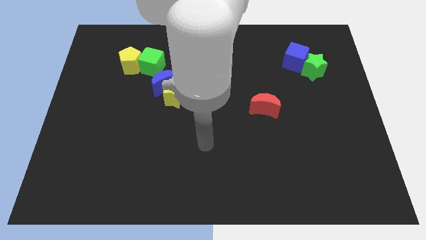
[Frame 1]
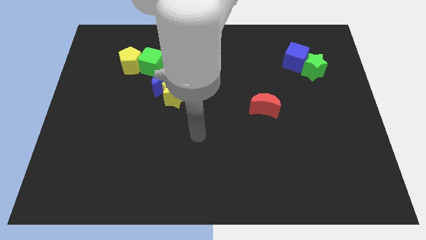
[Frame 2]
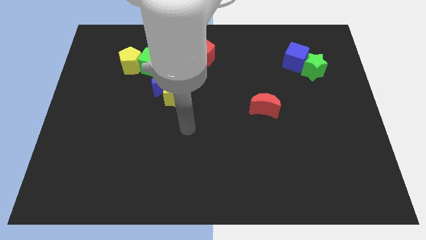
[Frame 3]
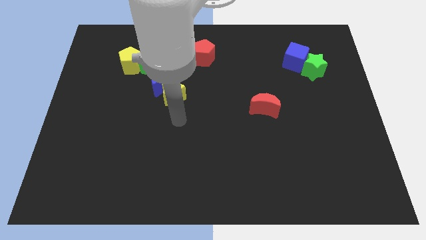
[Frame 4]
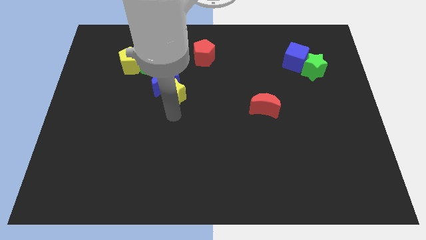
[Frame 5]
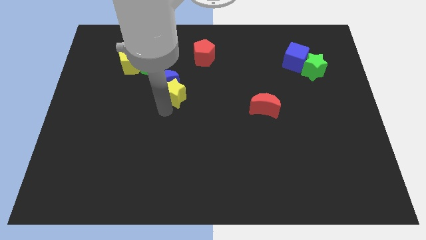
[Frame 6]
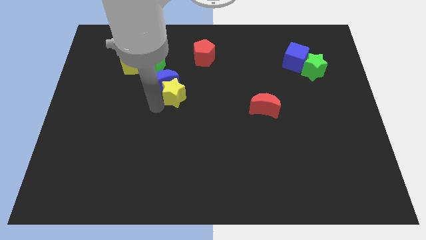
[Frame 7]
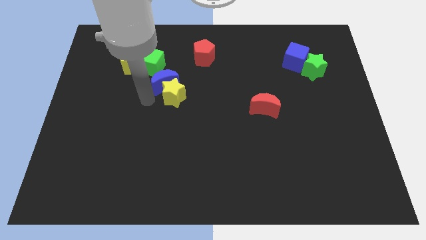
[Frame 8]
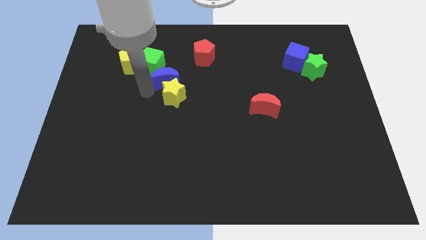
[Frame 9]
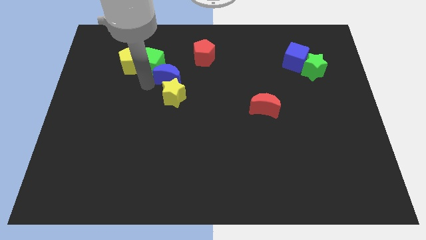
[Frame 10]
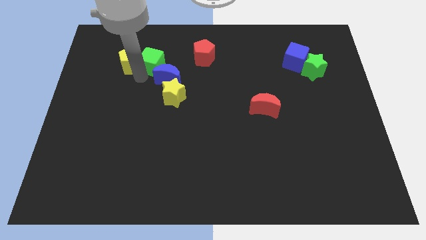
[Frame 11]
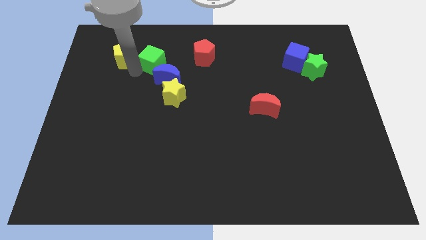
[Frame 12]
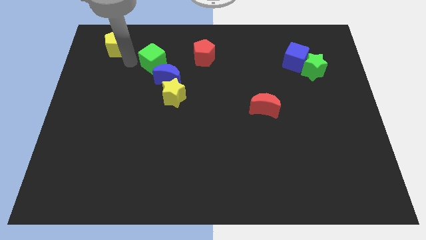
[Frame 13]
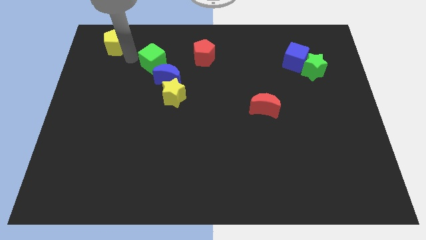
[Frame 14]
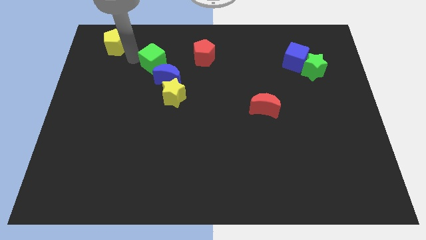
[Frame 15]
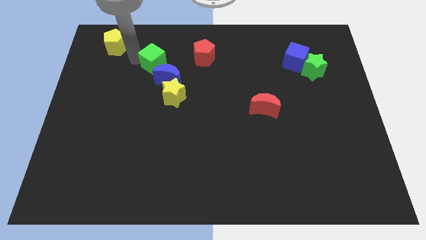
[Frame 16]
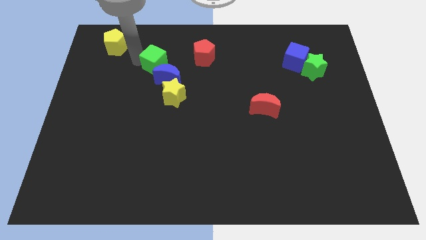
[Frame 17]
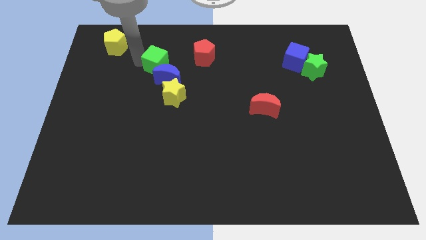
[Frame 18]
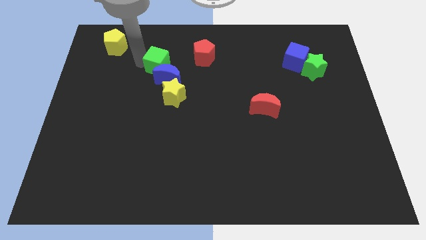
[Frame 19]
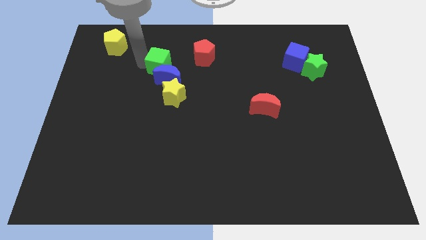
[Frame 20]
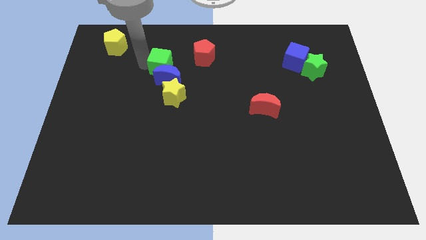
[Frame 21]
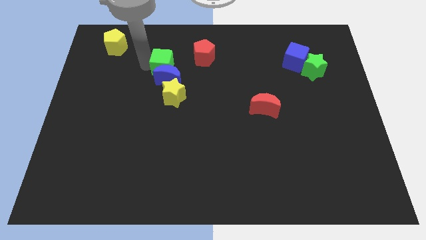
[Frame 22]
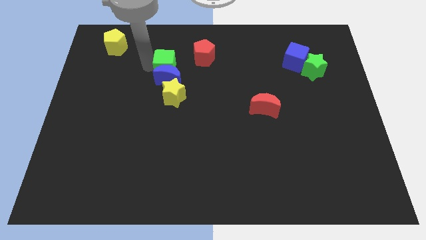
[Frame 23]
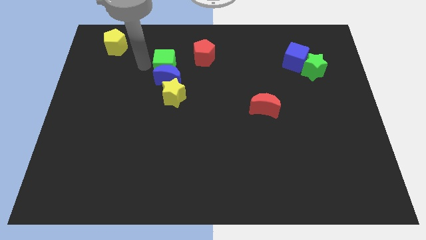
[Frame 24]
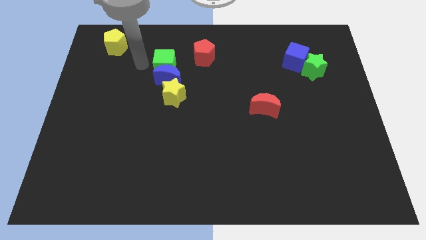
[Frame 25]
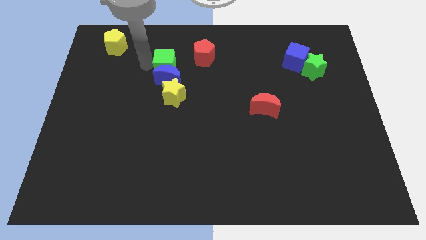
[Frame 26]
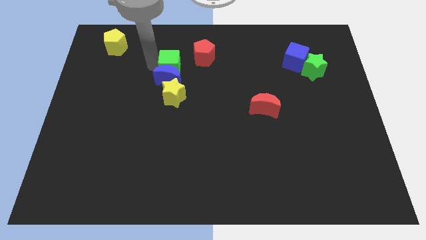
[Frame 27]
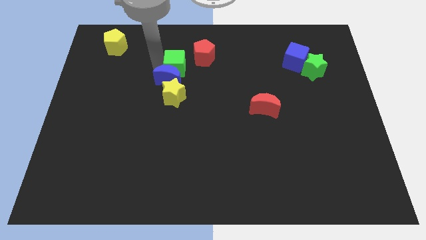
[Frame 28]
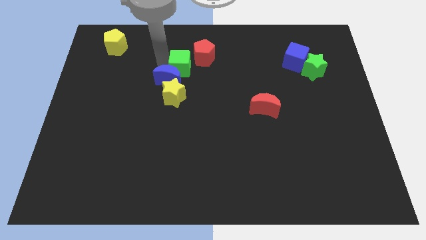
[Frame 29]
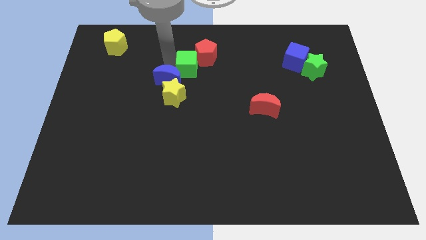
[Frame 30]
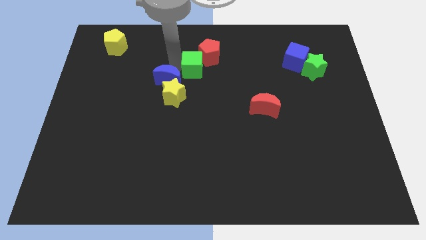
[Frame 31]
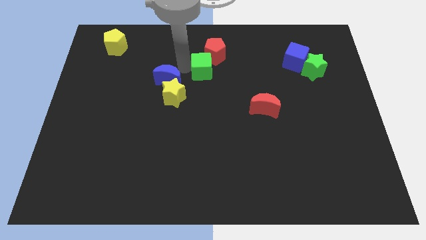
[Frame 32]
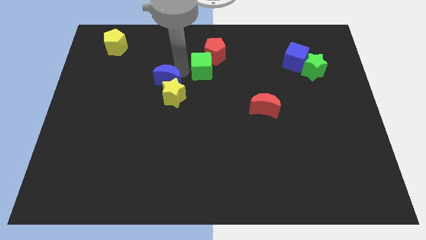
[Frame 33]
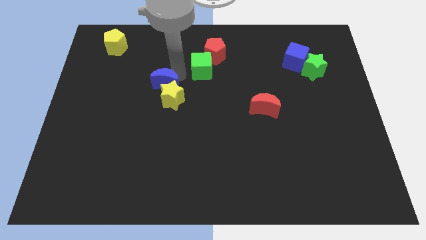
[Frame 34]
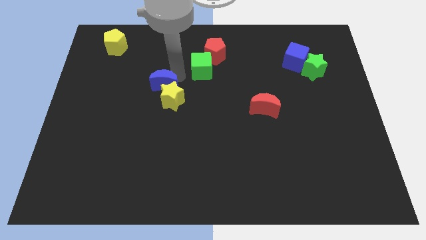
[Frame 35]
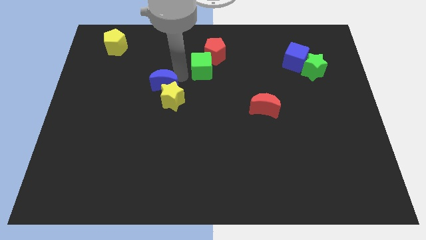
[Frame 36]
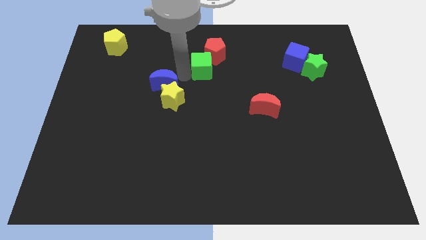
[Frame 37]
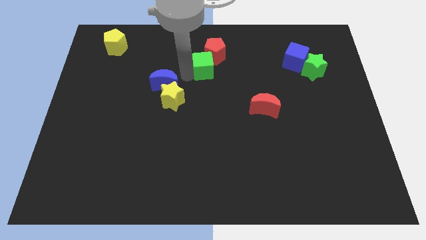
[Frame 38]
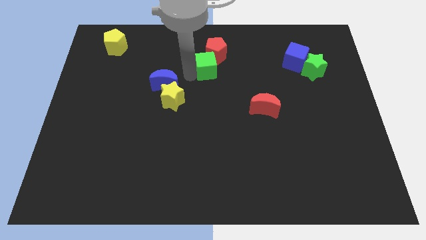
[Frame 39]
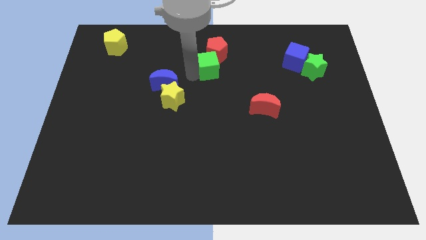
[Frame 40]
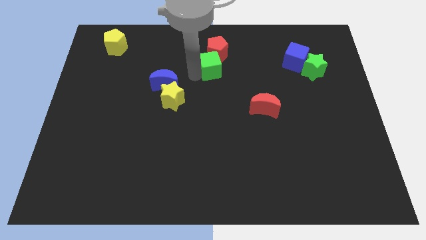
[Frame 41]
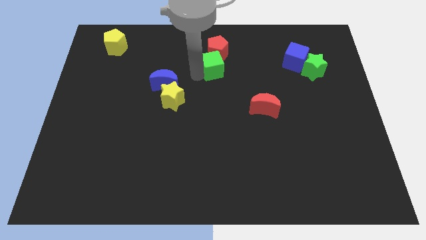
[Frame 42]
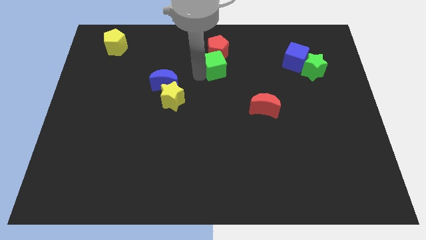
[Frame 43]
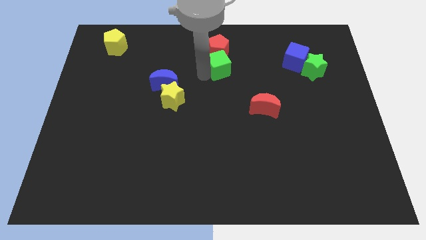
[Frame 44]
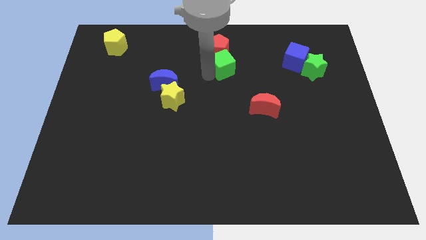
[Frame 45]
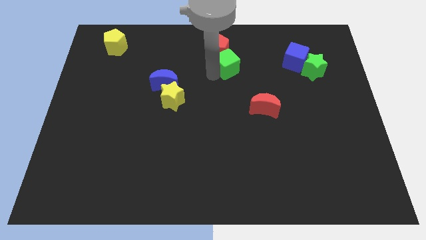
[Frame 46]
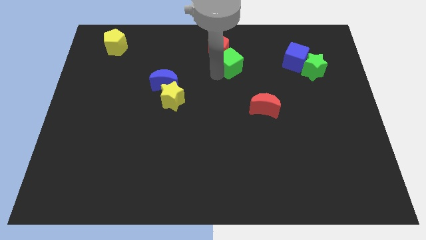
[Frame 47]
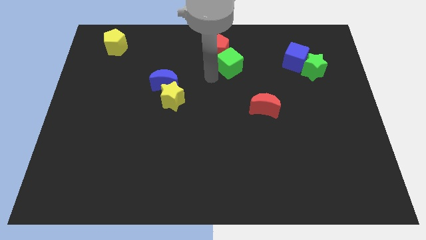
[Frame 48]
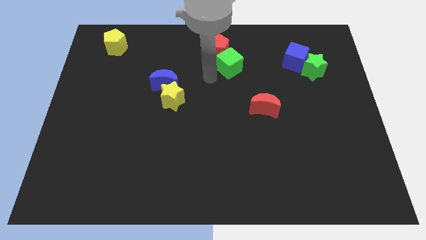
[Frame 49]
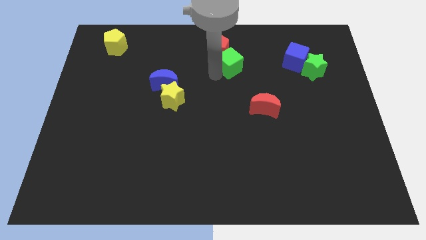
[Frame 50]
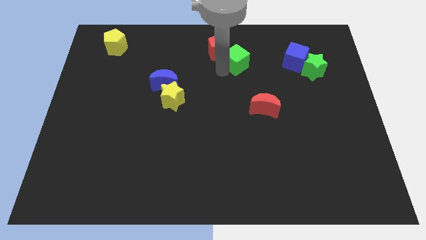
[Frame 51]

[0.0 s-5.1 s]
slide the green cube to the right of the red pentagon

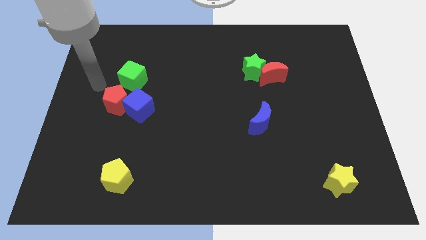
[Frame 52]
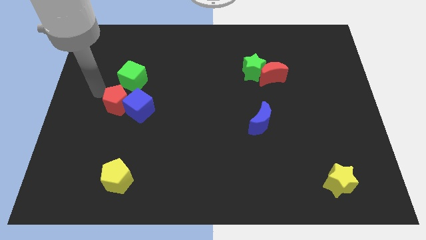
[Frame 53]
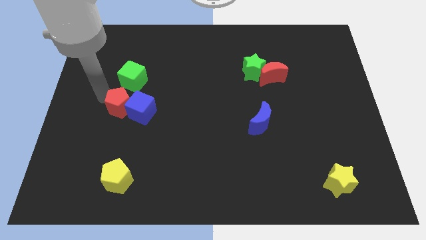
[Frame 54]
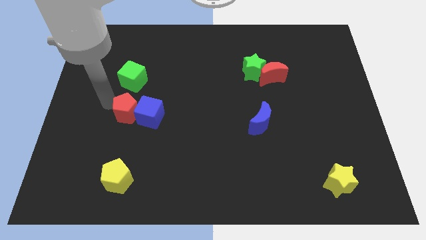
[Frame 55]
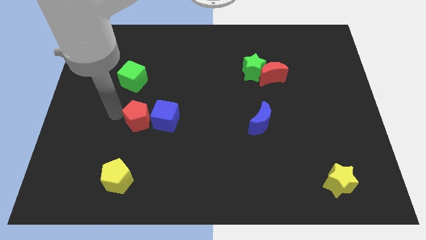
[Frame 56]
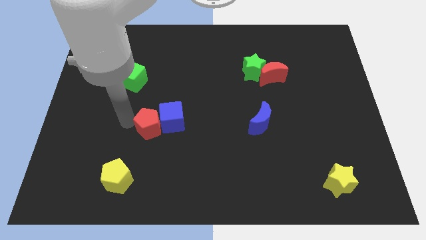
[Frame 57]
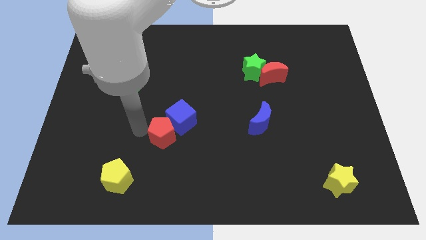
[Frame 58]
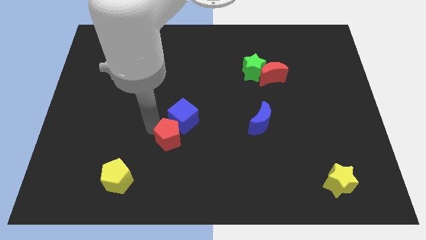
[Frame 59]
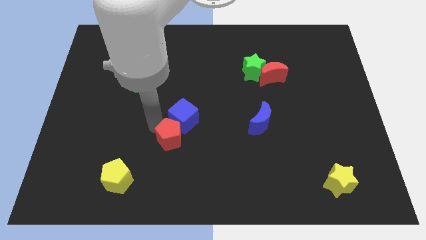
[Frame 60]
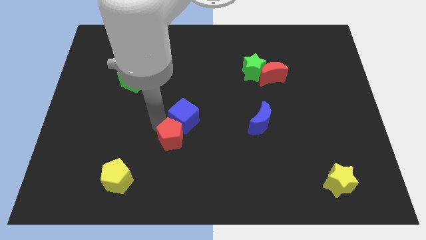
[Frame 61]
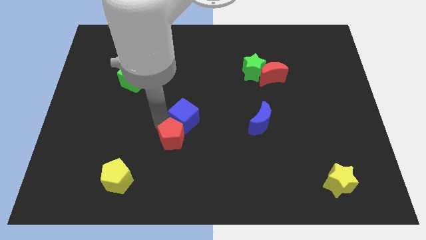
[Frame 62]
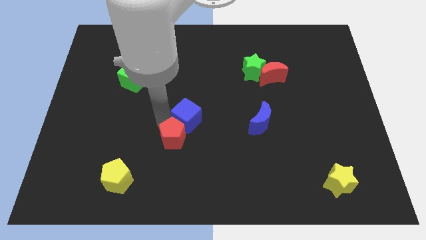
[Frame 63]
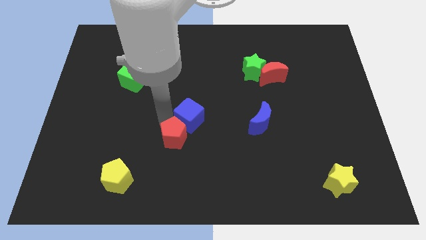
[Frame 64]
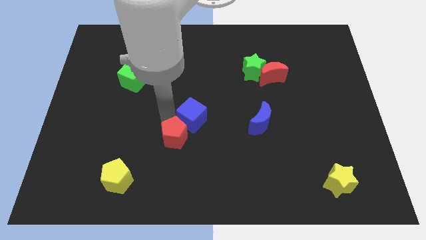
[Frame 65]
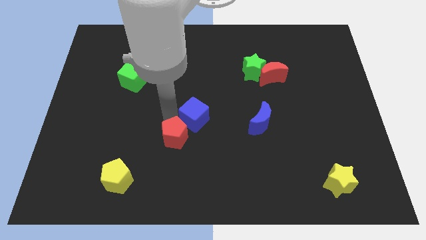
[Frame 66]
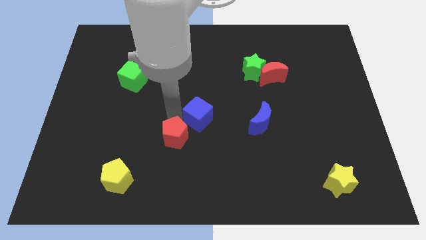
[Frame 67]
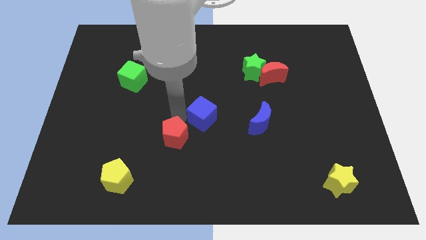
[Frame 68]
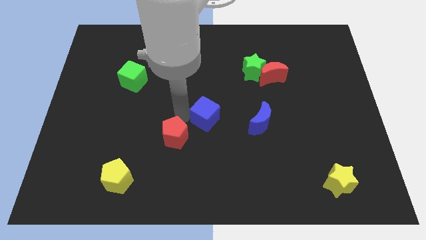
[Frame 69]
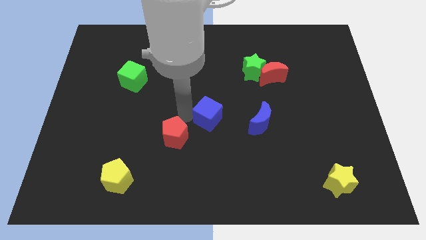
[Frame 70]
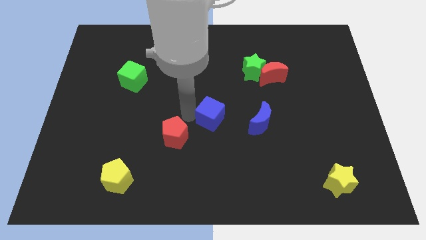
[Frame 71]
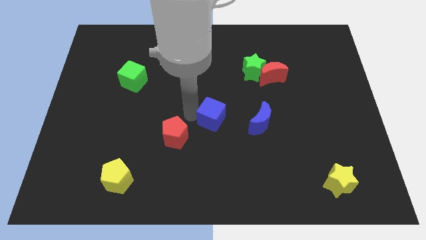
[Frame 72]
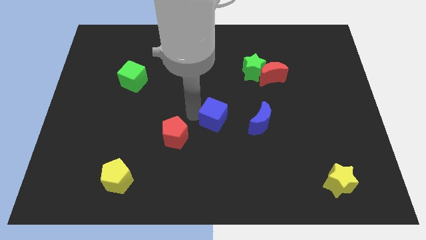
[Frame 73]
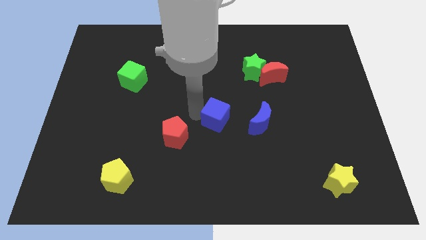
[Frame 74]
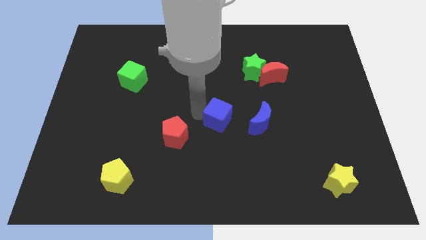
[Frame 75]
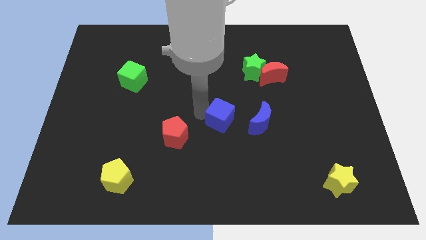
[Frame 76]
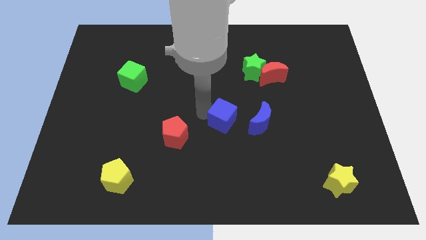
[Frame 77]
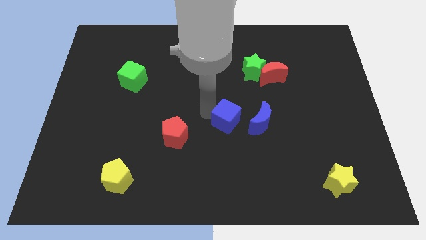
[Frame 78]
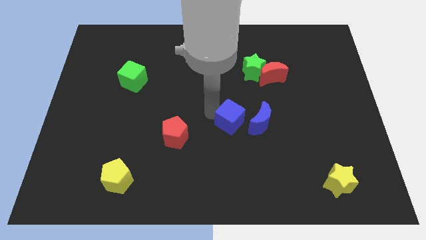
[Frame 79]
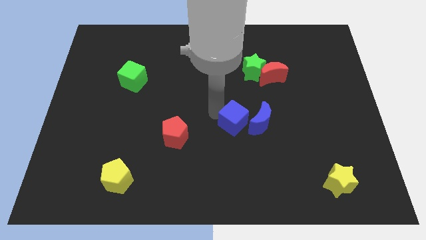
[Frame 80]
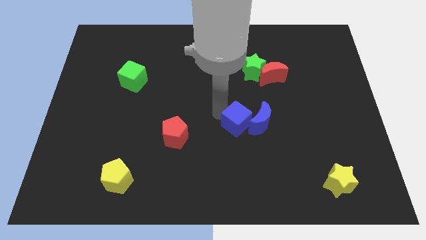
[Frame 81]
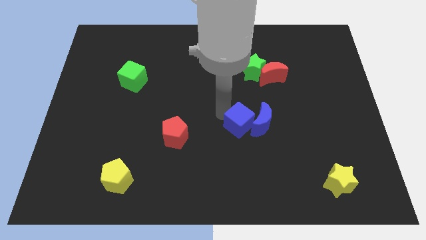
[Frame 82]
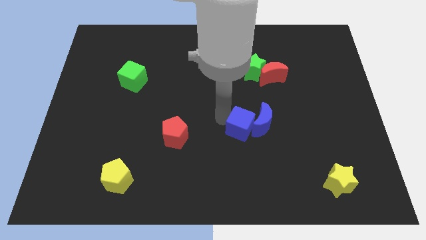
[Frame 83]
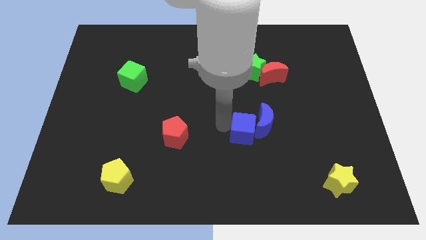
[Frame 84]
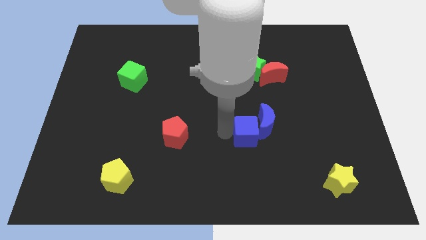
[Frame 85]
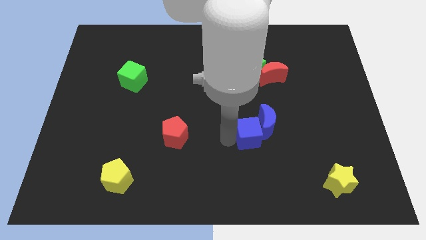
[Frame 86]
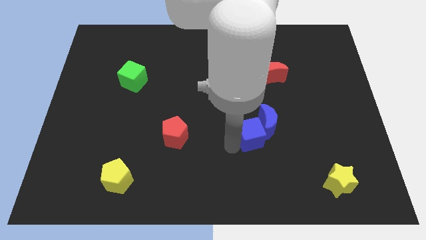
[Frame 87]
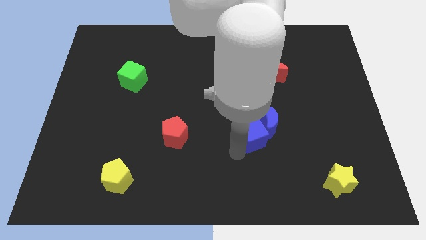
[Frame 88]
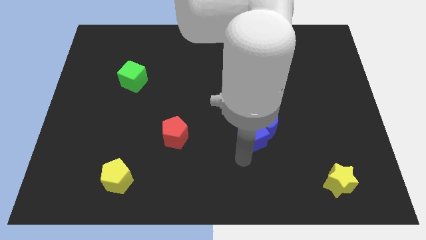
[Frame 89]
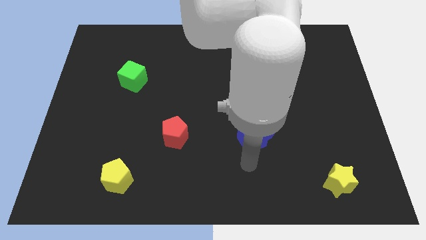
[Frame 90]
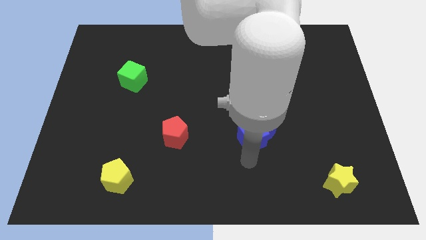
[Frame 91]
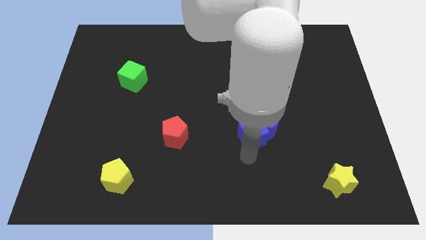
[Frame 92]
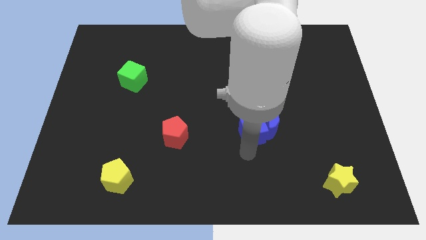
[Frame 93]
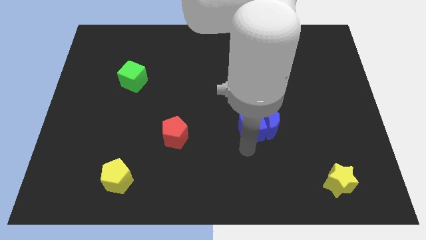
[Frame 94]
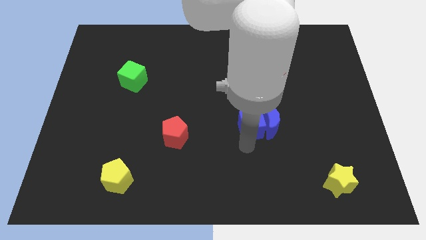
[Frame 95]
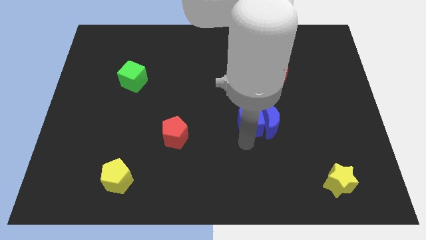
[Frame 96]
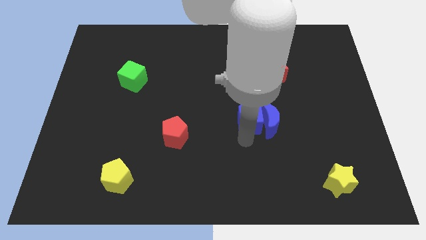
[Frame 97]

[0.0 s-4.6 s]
slide the blue cube below the green star
